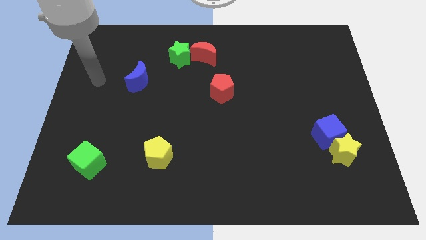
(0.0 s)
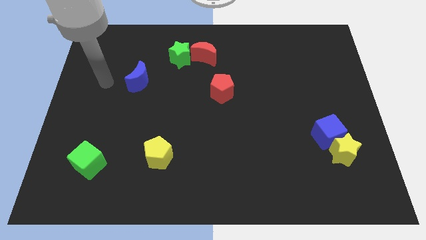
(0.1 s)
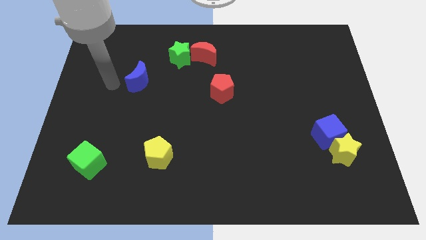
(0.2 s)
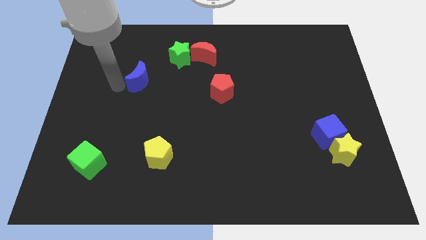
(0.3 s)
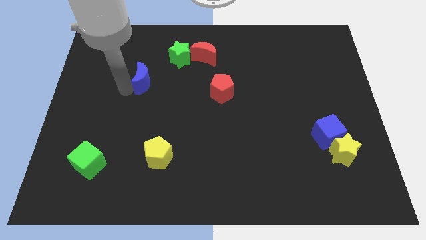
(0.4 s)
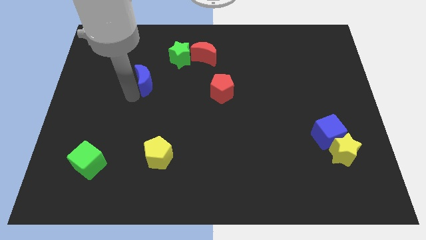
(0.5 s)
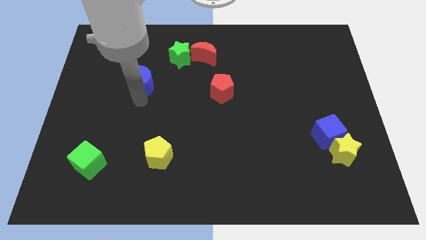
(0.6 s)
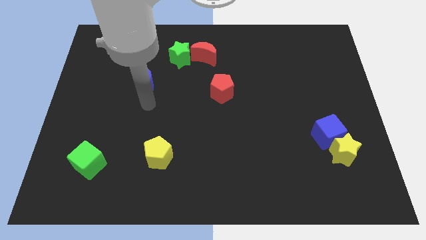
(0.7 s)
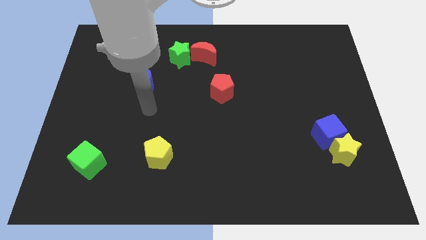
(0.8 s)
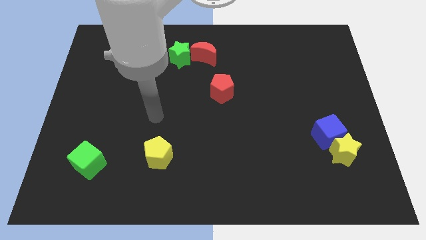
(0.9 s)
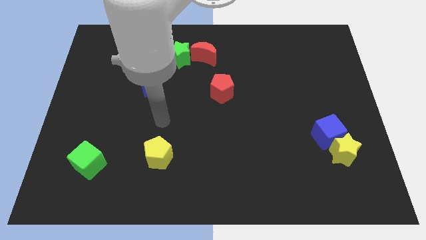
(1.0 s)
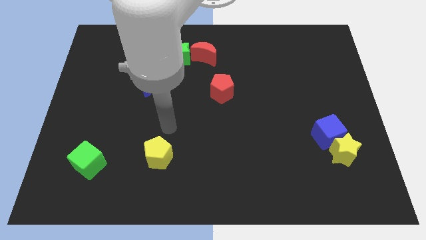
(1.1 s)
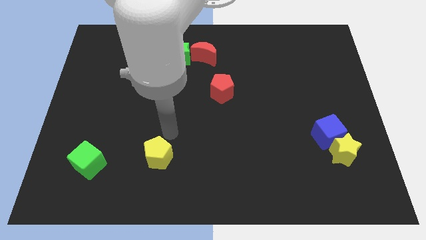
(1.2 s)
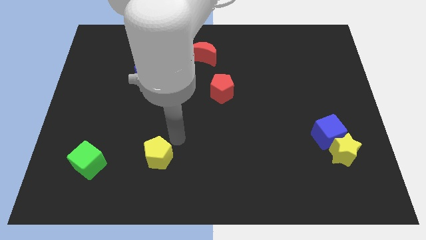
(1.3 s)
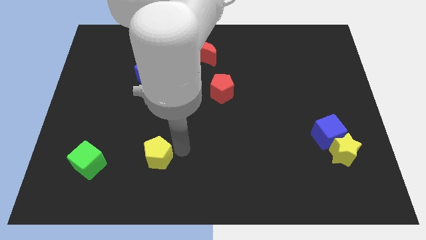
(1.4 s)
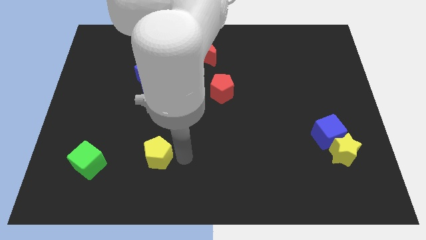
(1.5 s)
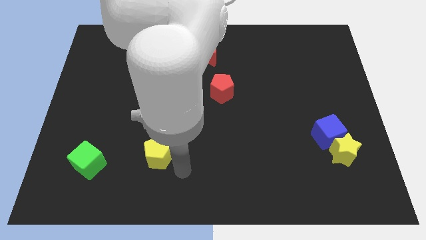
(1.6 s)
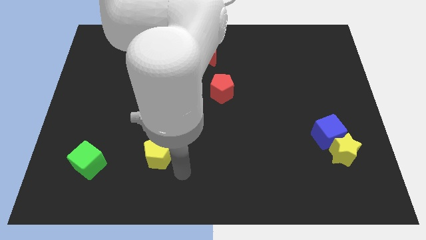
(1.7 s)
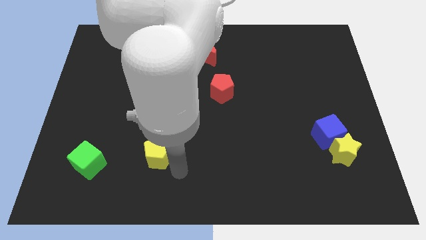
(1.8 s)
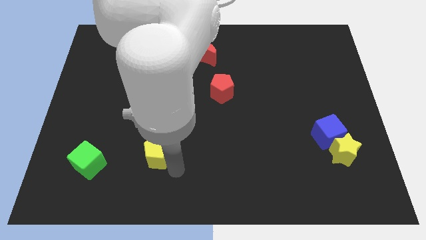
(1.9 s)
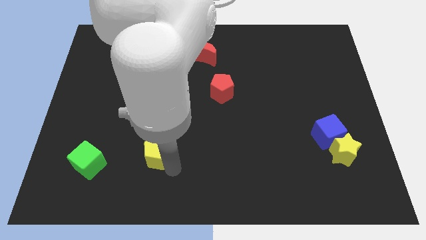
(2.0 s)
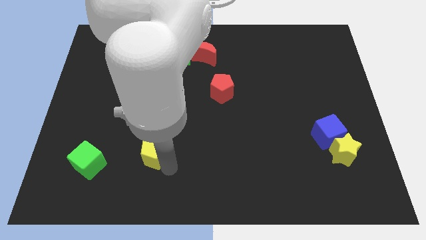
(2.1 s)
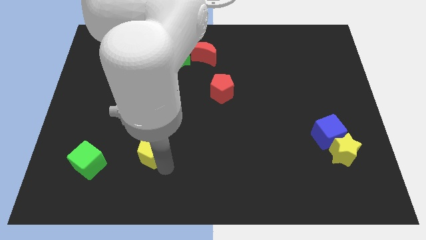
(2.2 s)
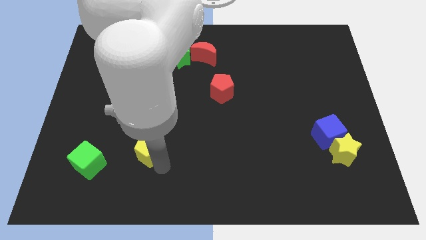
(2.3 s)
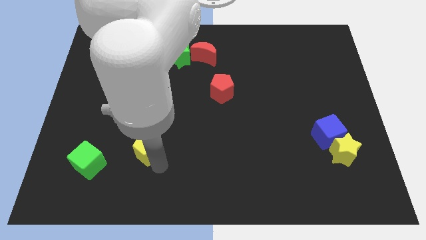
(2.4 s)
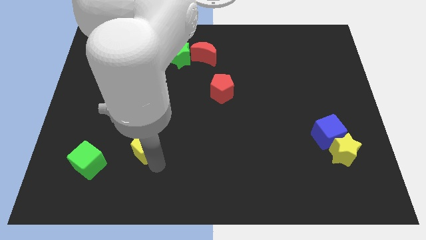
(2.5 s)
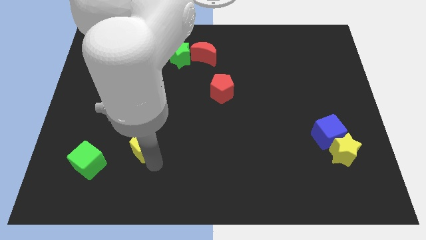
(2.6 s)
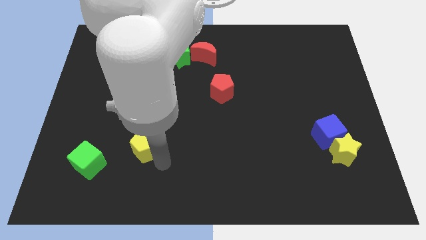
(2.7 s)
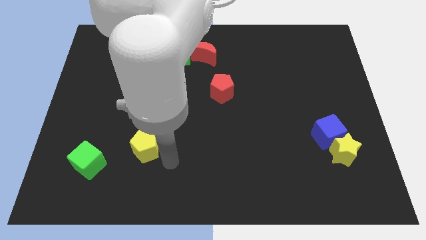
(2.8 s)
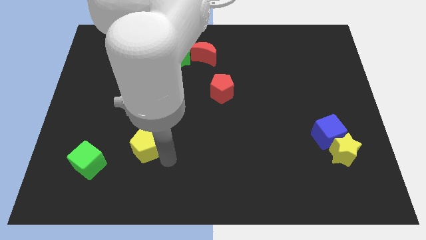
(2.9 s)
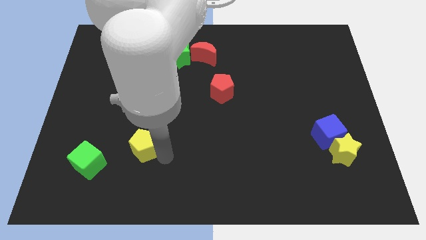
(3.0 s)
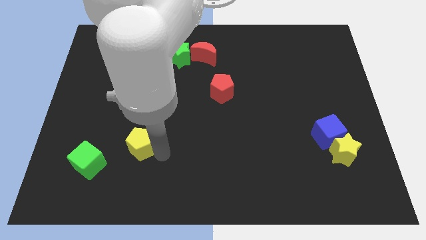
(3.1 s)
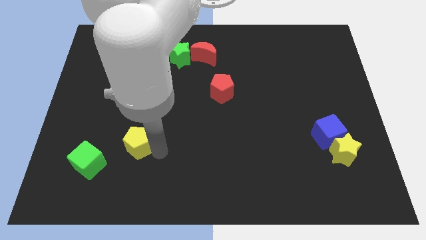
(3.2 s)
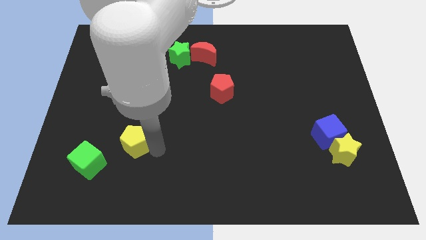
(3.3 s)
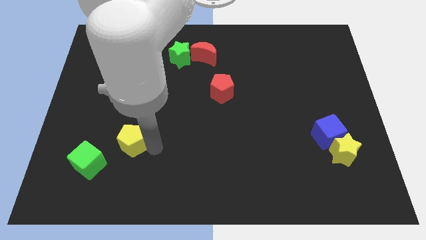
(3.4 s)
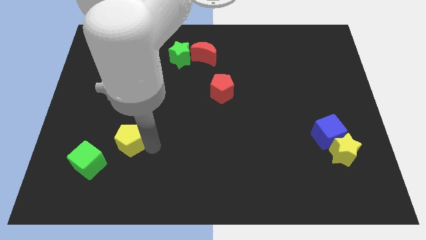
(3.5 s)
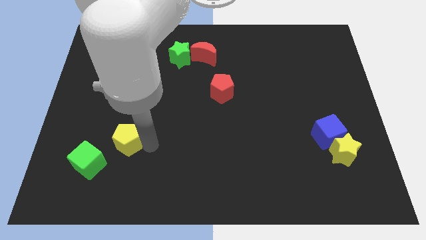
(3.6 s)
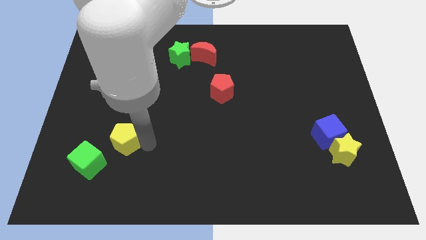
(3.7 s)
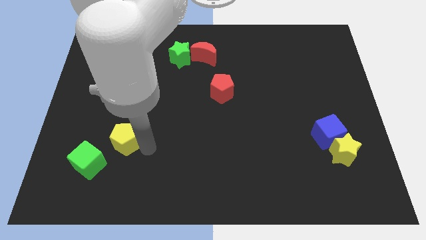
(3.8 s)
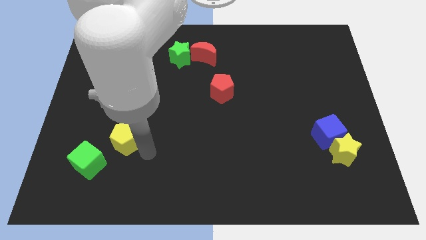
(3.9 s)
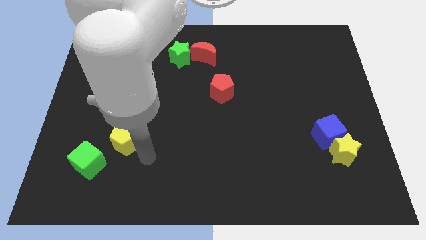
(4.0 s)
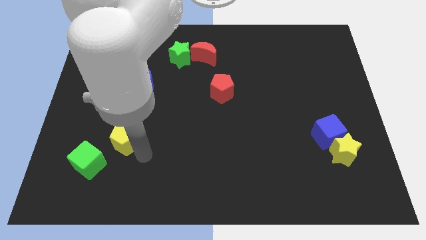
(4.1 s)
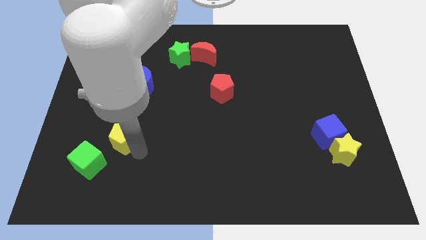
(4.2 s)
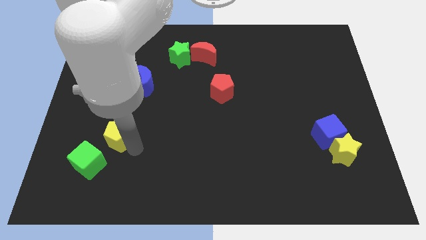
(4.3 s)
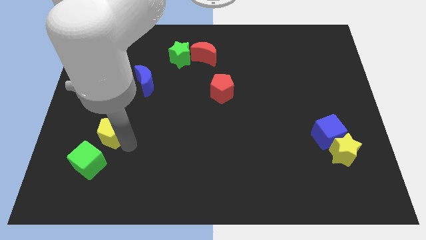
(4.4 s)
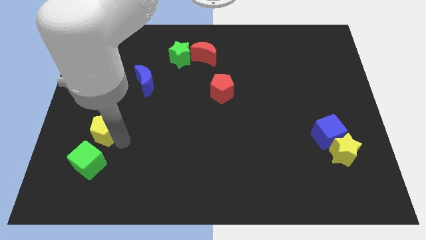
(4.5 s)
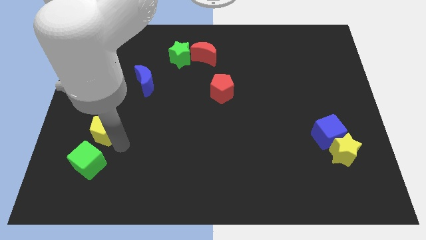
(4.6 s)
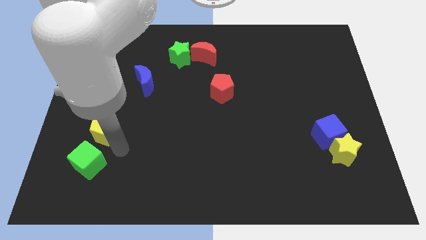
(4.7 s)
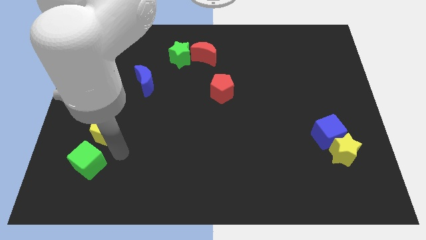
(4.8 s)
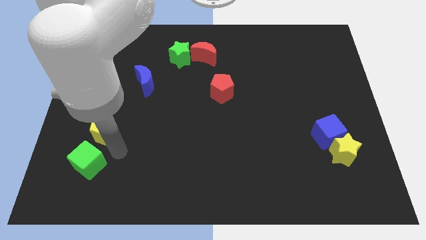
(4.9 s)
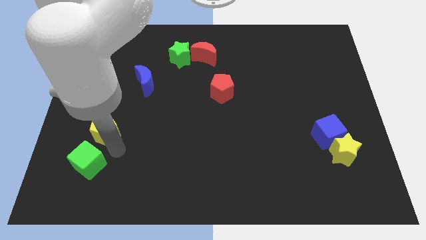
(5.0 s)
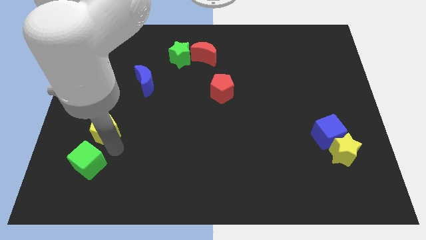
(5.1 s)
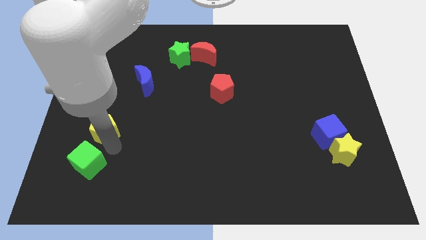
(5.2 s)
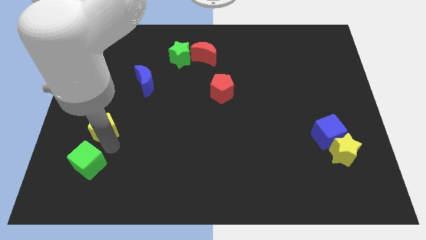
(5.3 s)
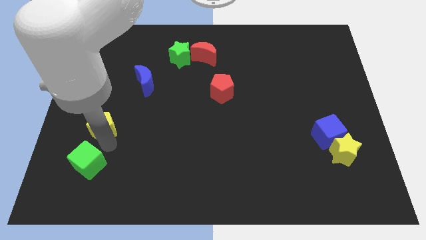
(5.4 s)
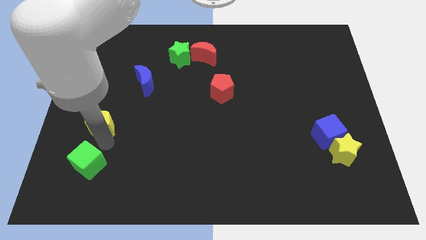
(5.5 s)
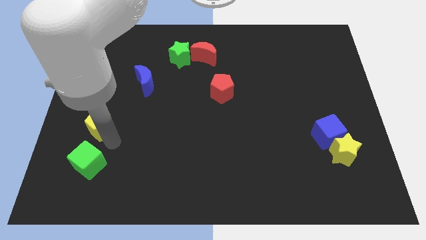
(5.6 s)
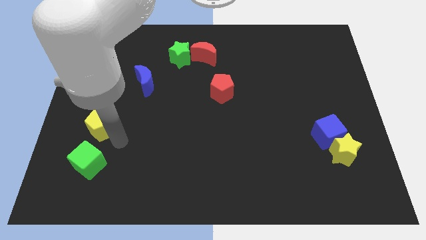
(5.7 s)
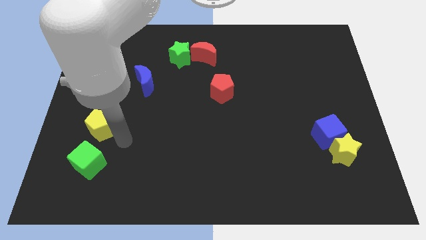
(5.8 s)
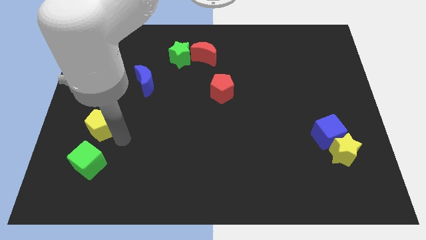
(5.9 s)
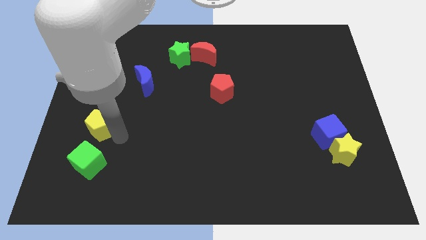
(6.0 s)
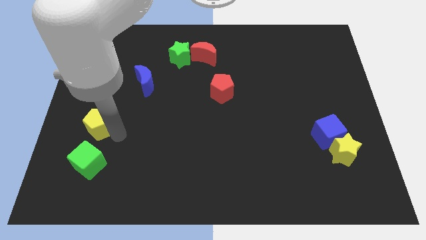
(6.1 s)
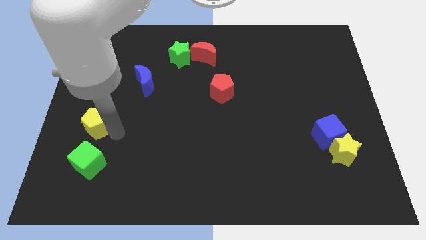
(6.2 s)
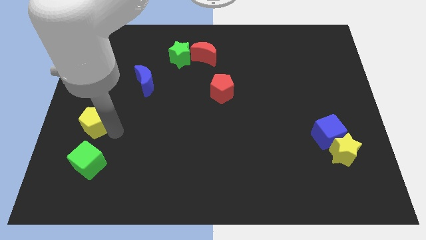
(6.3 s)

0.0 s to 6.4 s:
slide the yellow pentagon to the left side

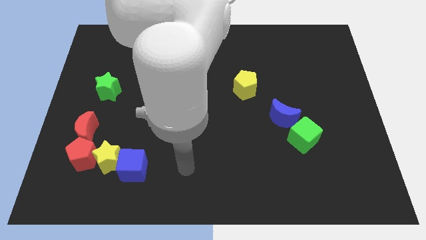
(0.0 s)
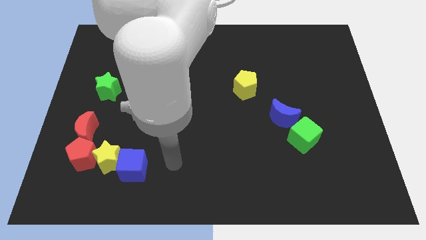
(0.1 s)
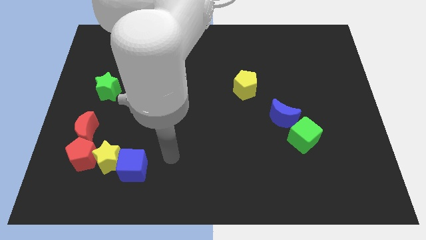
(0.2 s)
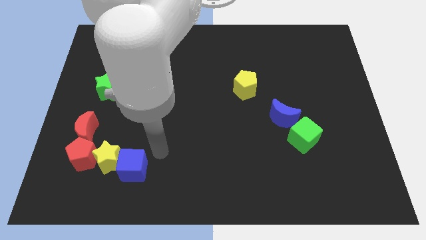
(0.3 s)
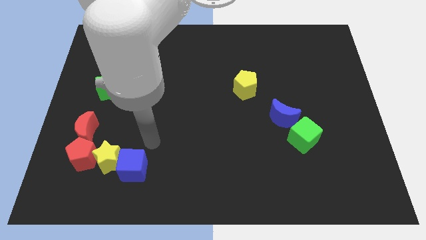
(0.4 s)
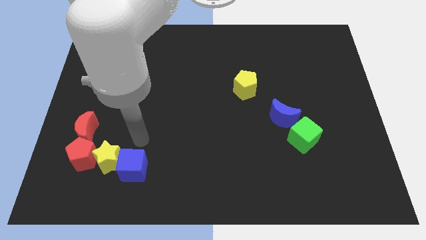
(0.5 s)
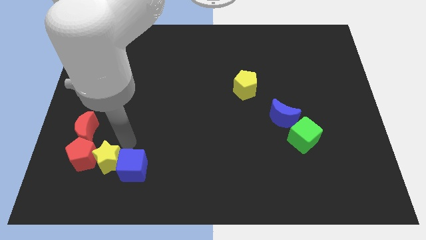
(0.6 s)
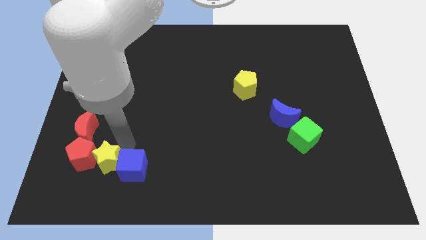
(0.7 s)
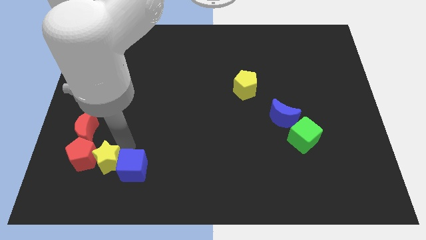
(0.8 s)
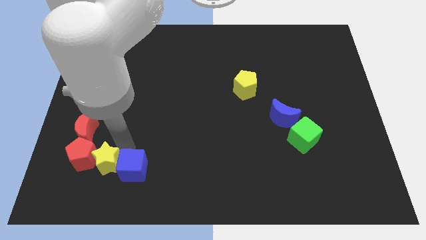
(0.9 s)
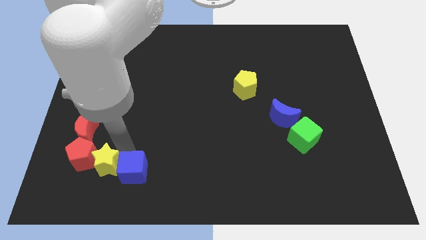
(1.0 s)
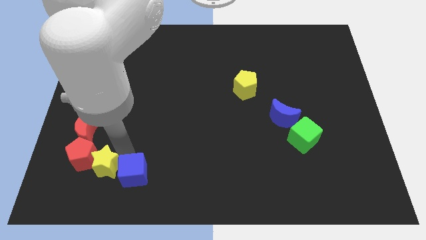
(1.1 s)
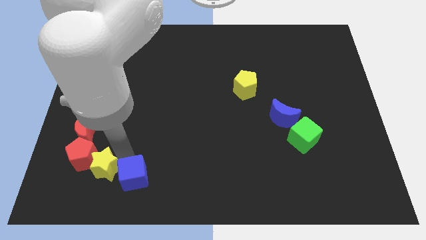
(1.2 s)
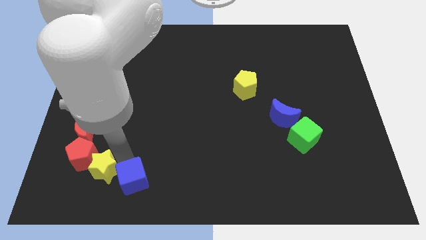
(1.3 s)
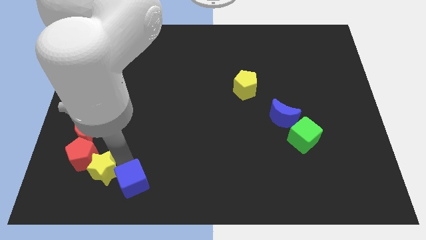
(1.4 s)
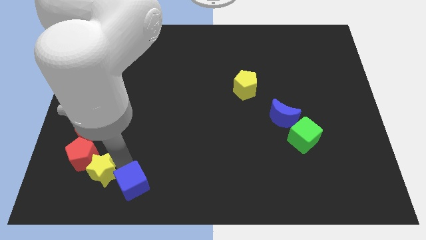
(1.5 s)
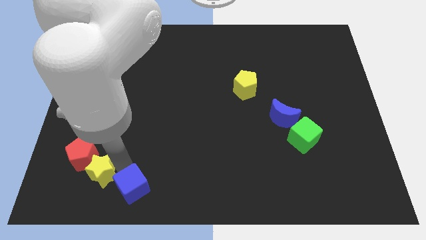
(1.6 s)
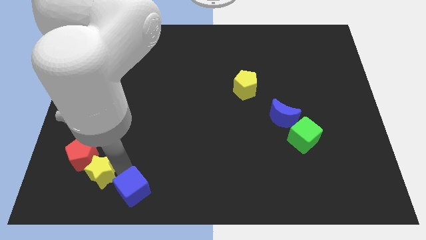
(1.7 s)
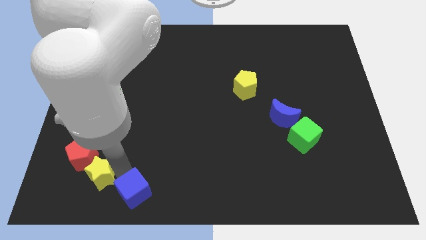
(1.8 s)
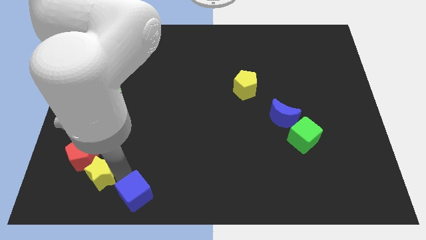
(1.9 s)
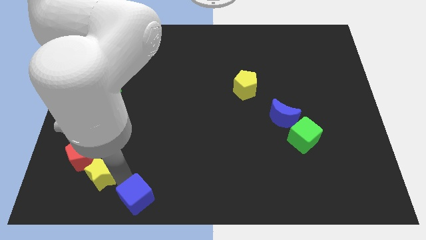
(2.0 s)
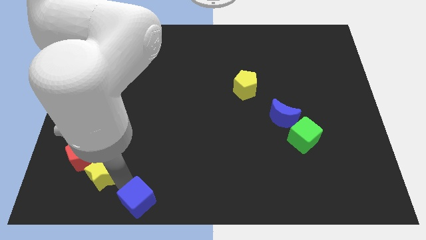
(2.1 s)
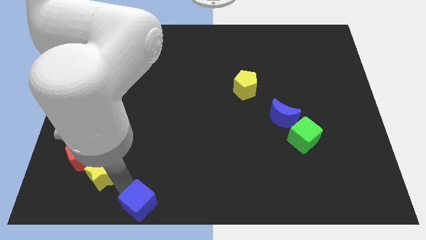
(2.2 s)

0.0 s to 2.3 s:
put the blue cube to the bottom
